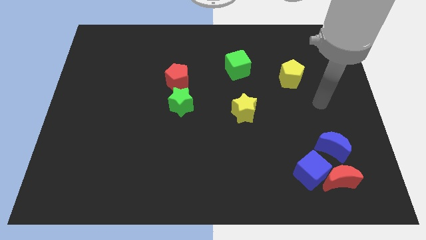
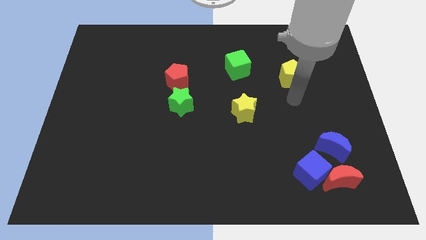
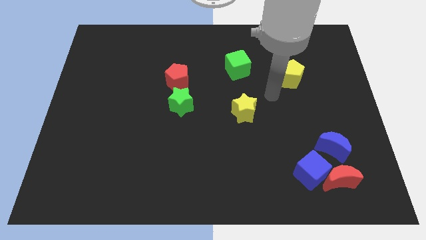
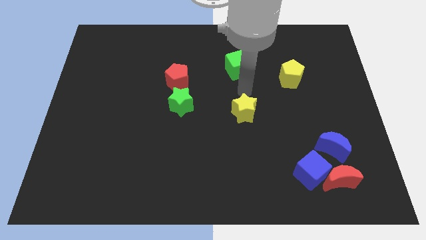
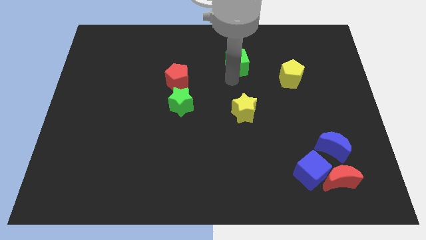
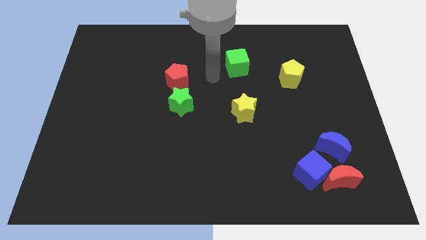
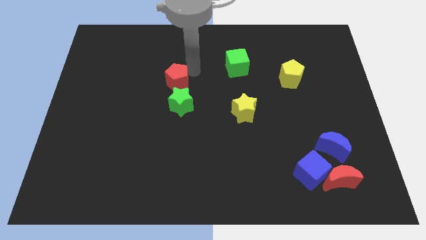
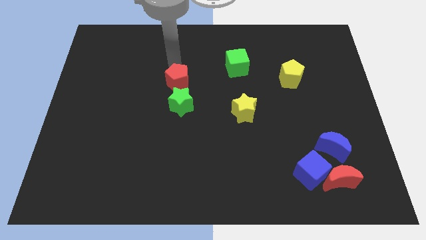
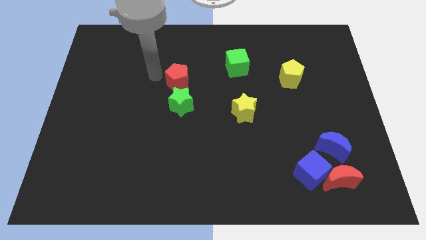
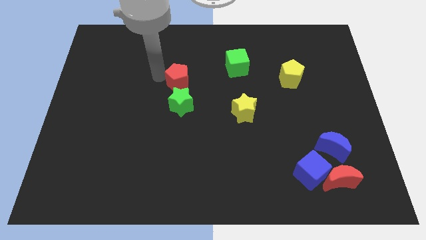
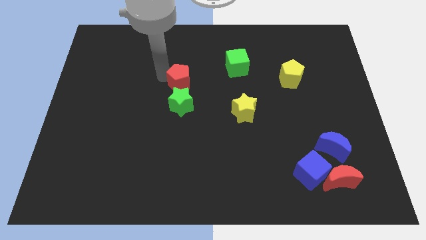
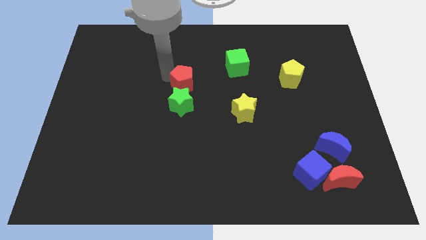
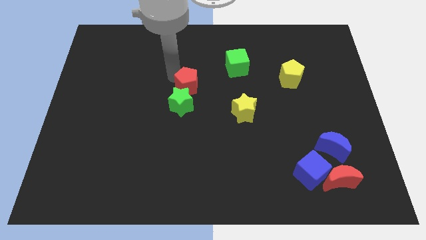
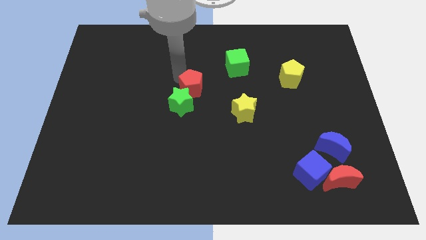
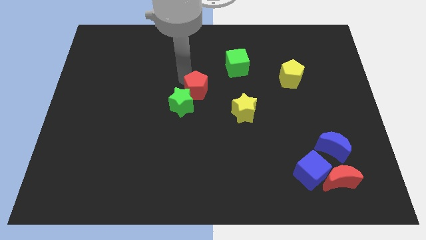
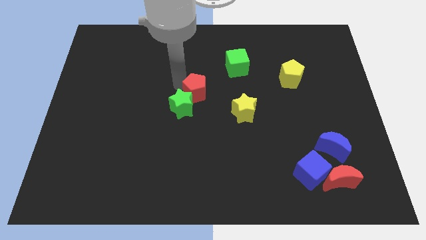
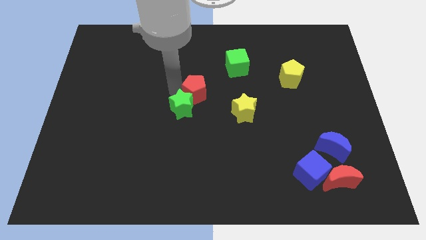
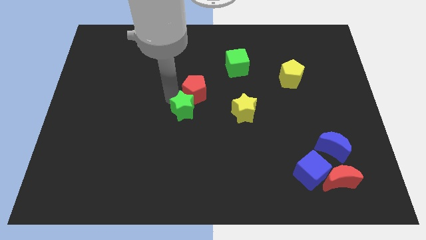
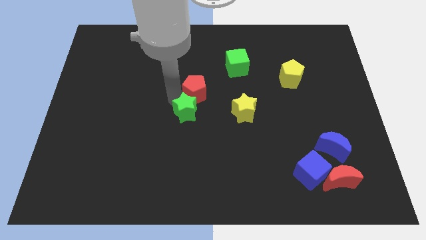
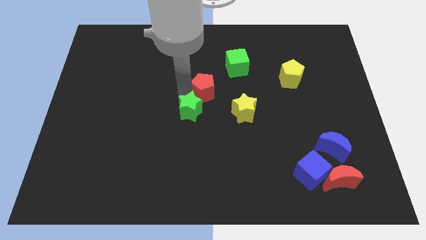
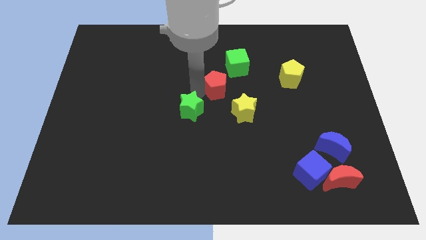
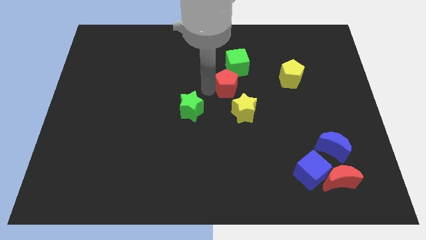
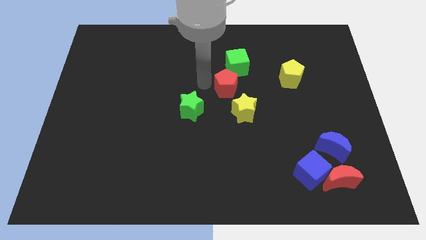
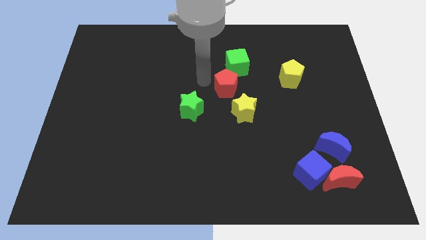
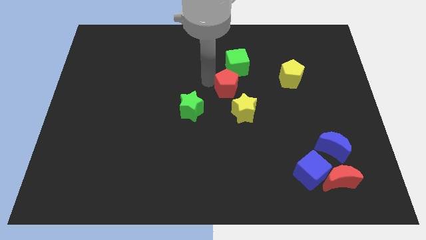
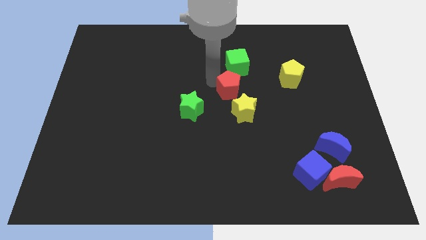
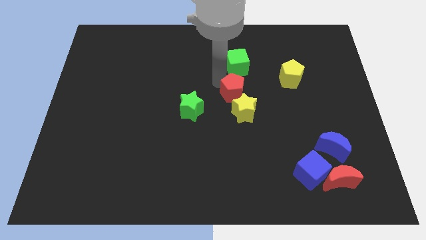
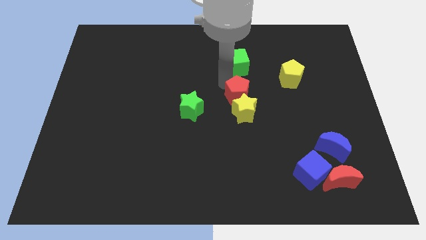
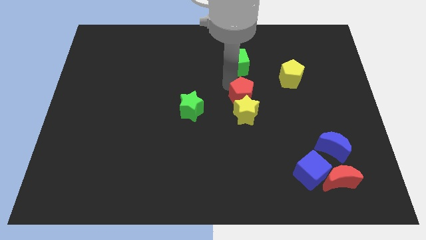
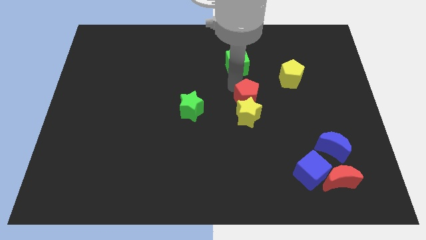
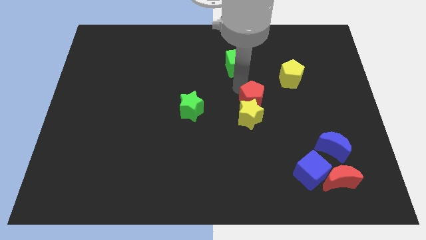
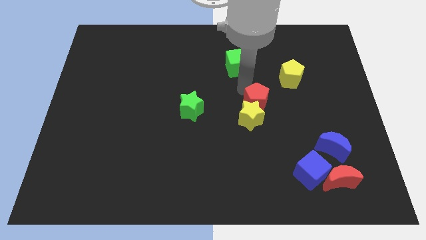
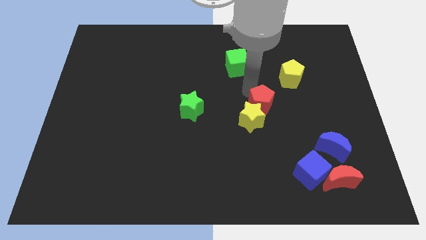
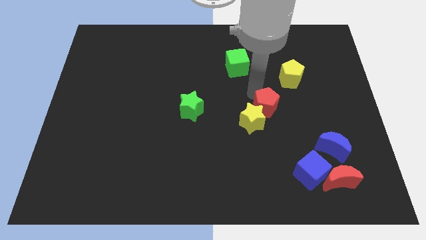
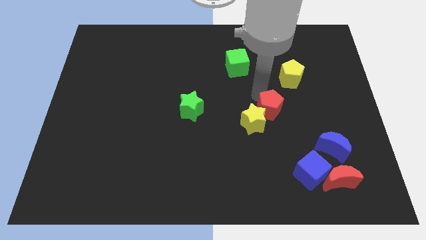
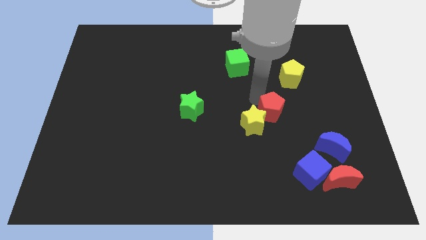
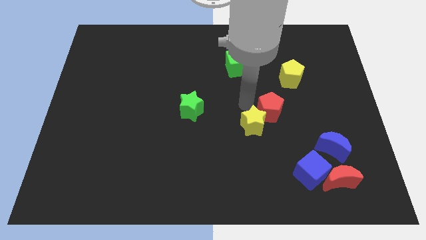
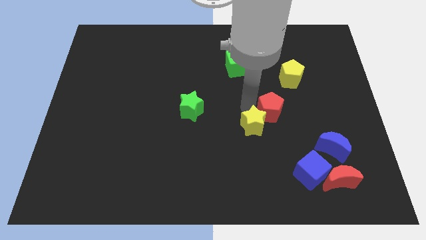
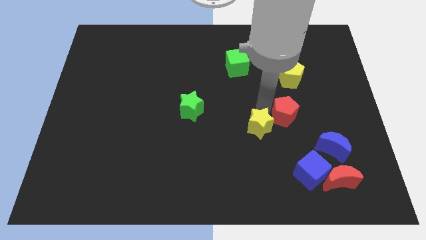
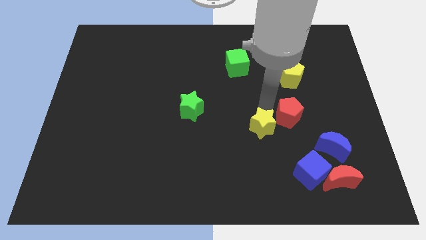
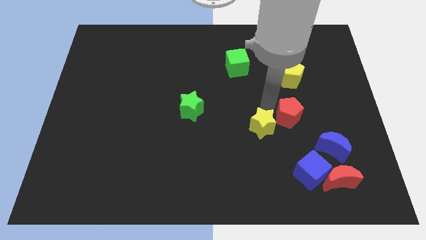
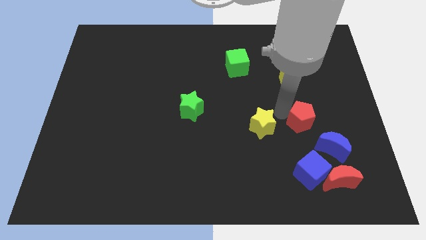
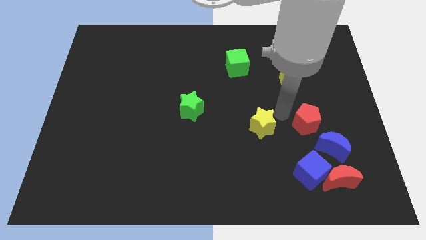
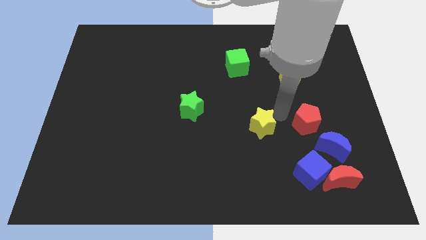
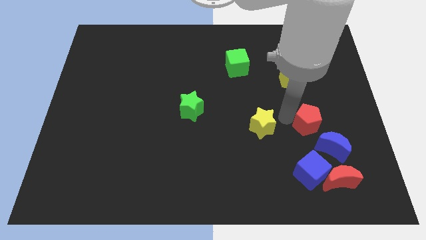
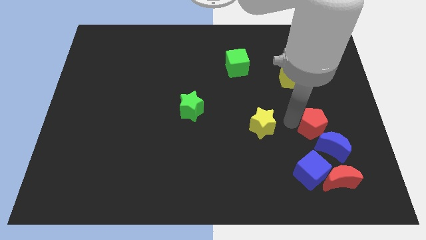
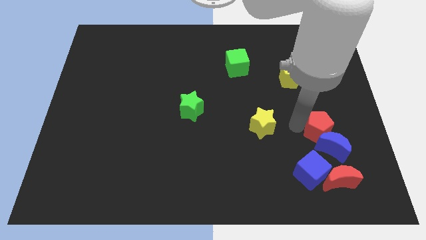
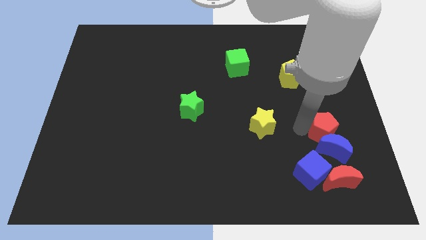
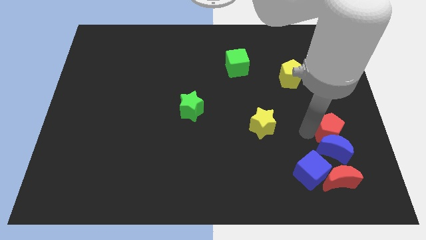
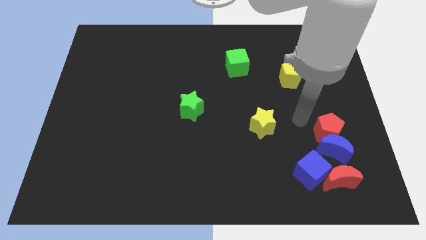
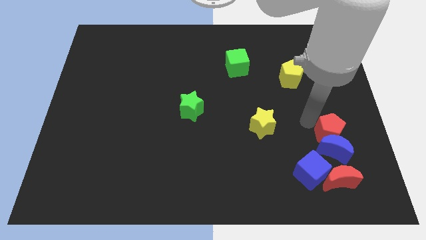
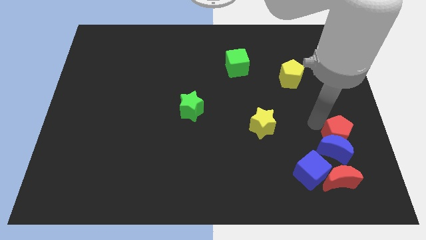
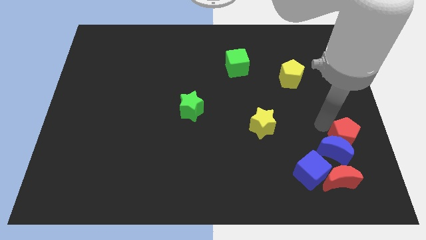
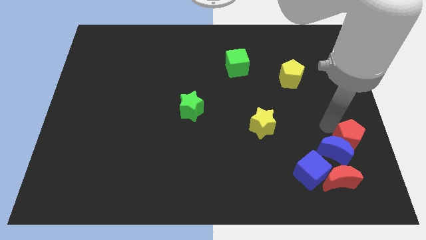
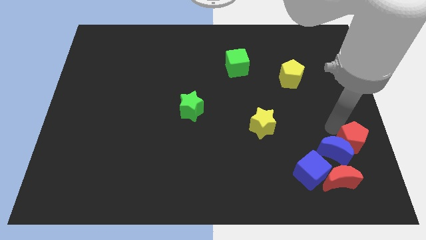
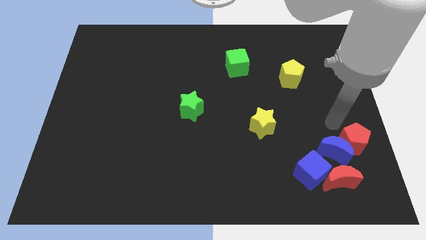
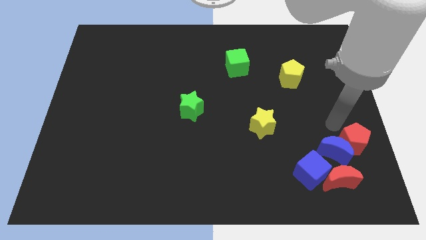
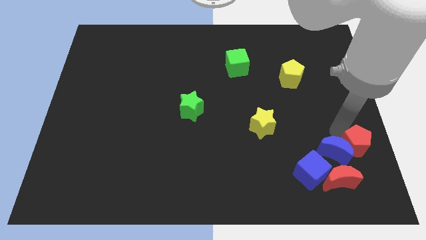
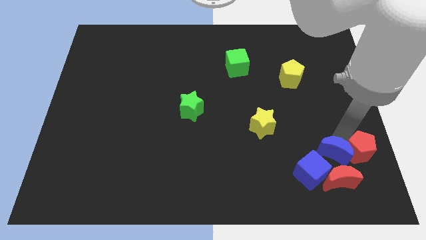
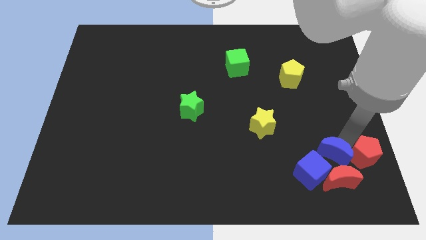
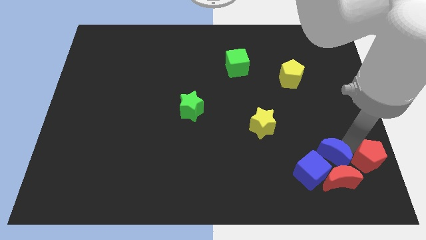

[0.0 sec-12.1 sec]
put the red pentagon to the bottom right
